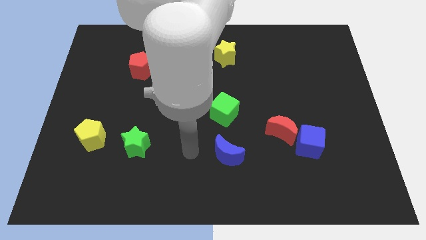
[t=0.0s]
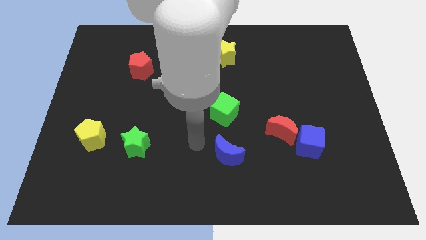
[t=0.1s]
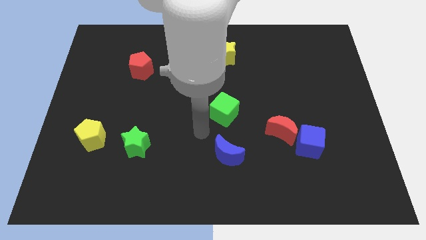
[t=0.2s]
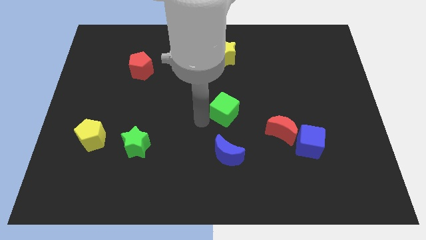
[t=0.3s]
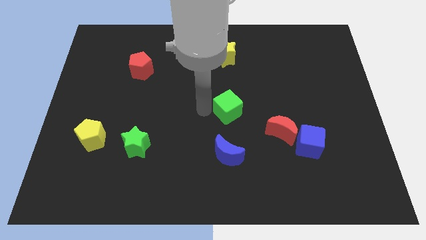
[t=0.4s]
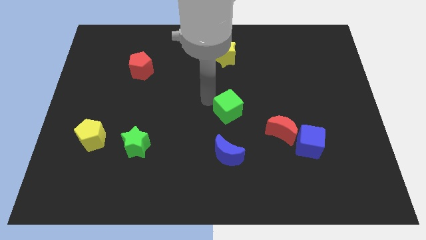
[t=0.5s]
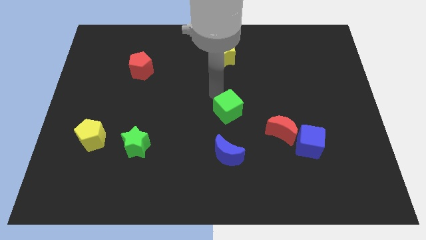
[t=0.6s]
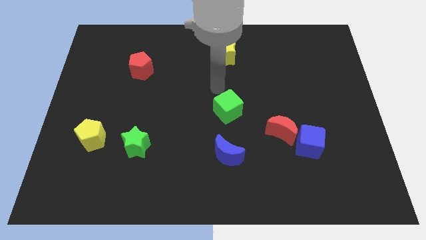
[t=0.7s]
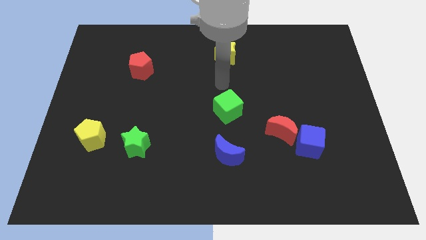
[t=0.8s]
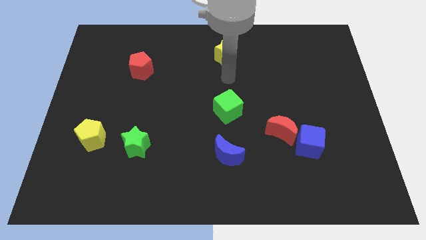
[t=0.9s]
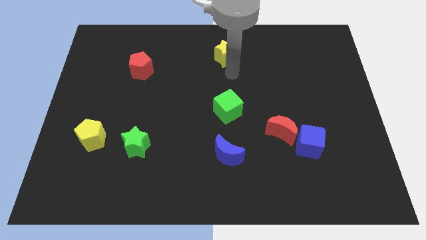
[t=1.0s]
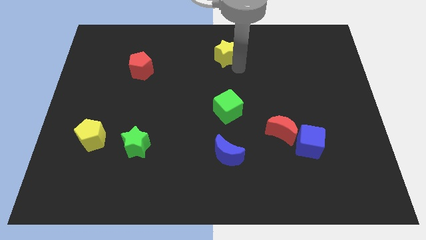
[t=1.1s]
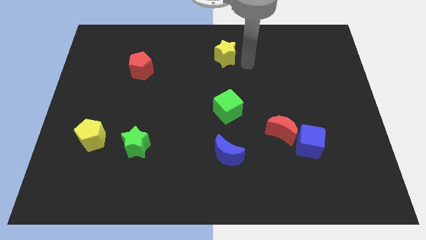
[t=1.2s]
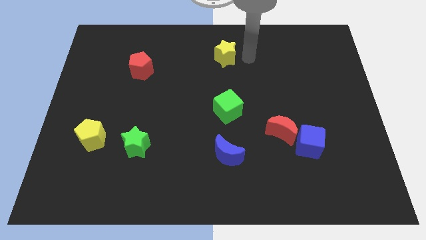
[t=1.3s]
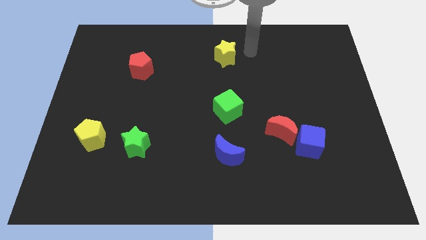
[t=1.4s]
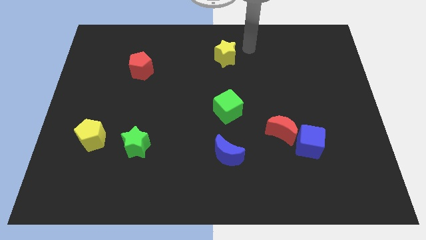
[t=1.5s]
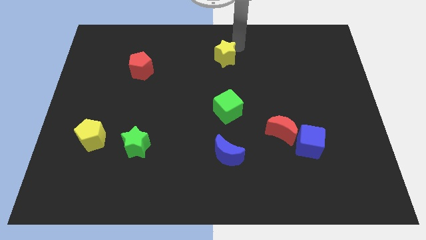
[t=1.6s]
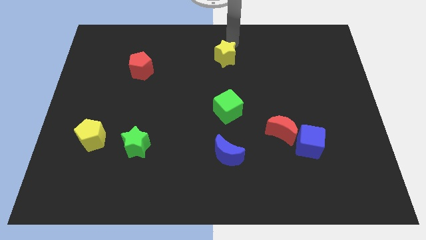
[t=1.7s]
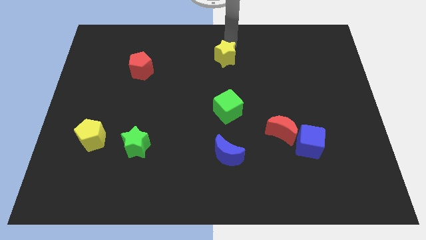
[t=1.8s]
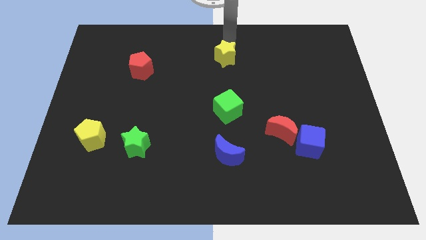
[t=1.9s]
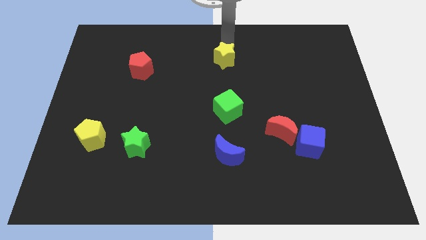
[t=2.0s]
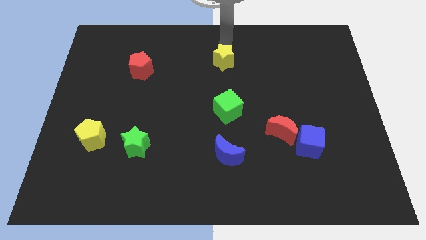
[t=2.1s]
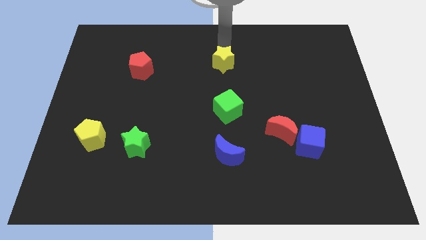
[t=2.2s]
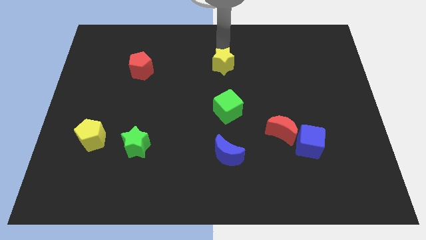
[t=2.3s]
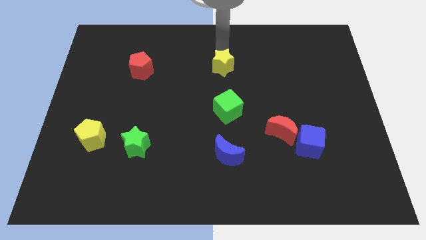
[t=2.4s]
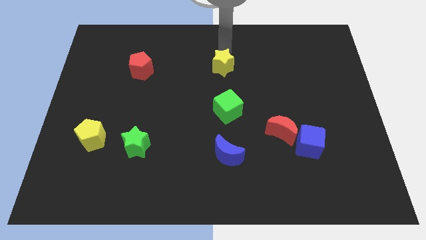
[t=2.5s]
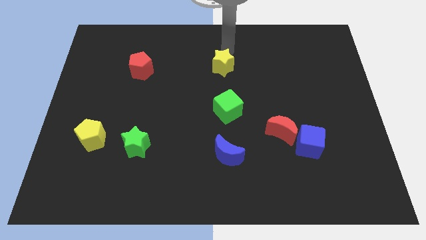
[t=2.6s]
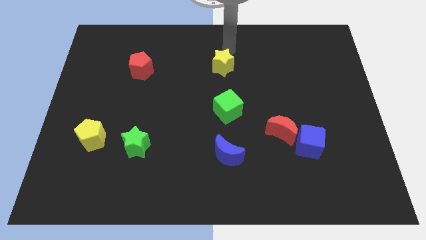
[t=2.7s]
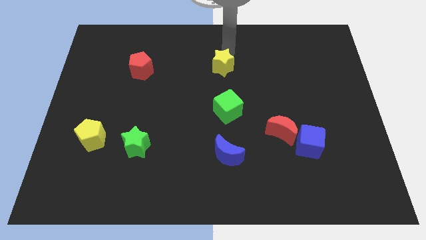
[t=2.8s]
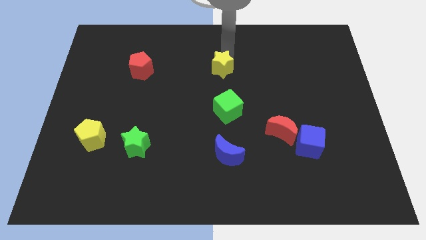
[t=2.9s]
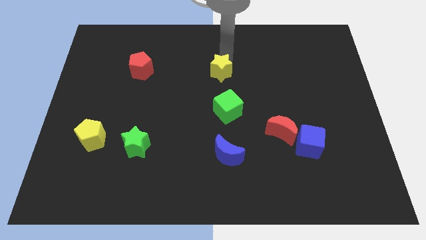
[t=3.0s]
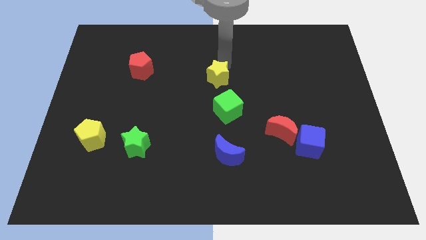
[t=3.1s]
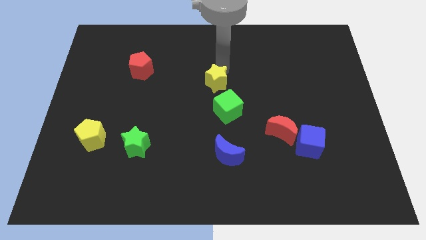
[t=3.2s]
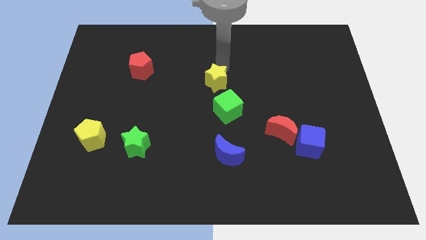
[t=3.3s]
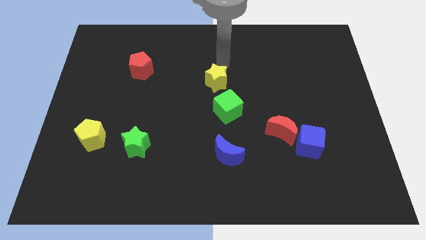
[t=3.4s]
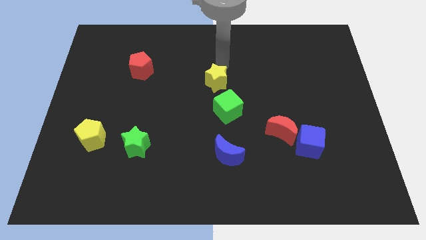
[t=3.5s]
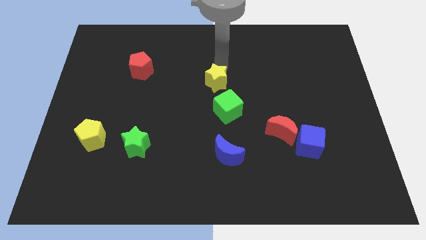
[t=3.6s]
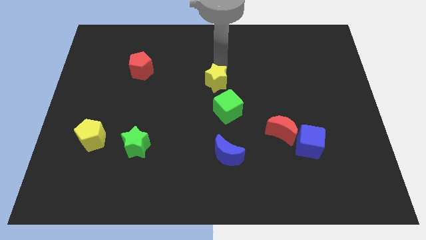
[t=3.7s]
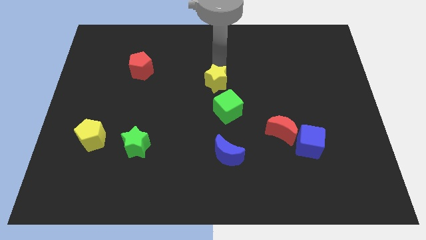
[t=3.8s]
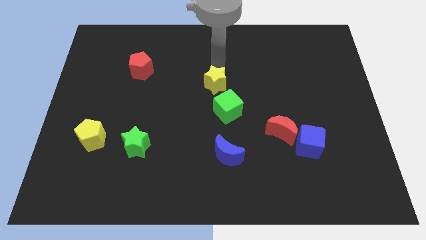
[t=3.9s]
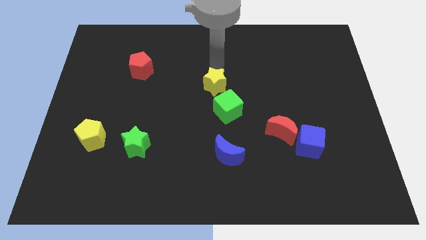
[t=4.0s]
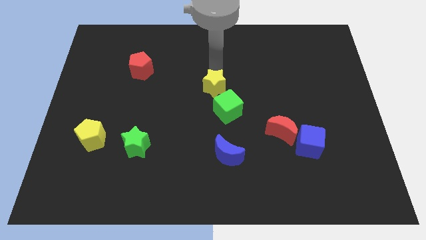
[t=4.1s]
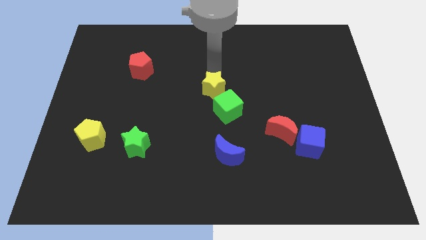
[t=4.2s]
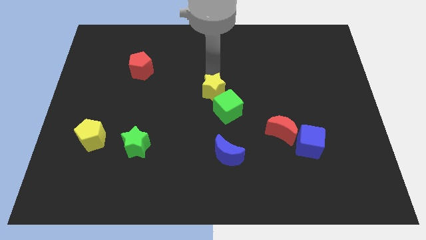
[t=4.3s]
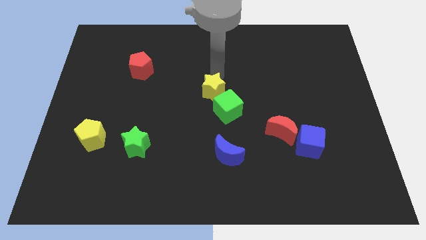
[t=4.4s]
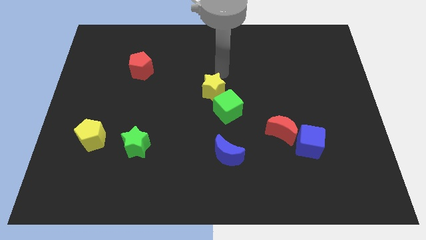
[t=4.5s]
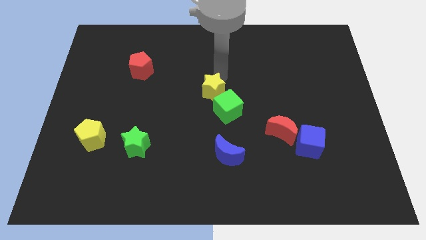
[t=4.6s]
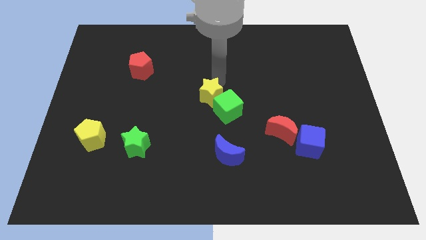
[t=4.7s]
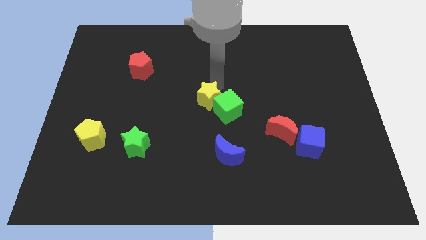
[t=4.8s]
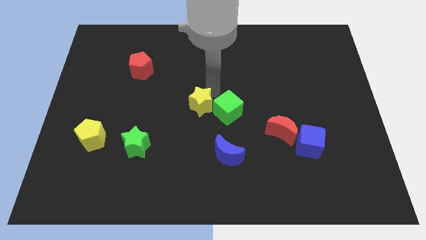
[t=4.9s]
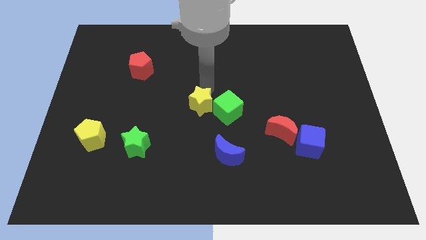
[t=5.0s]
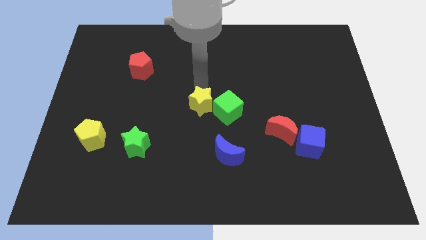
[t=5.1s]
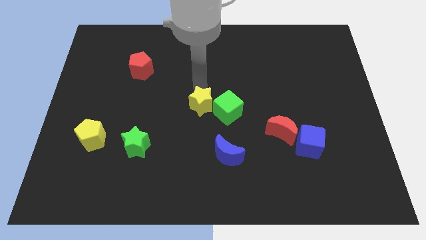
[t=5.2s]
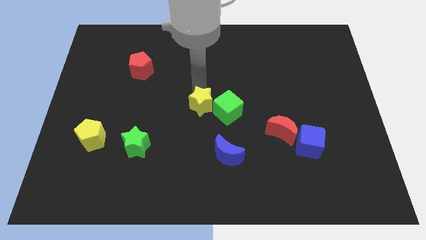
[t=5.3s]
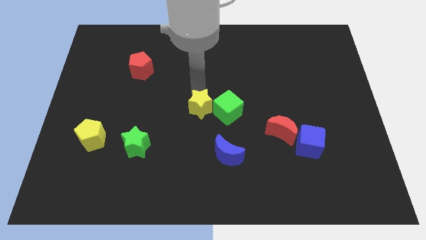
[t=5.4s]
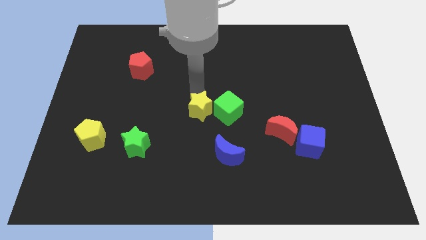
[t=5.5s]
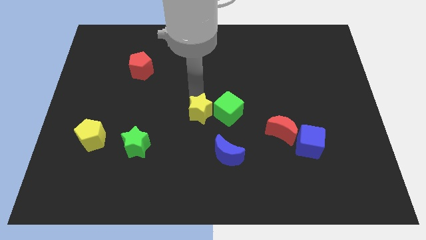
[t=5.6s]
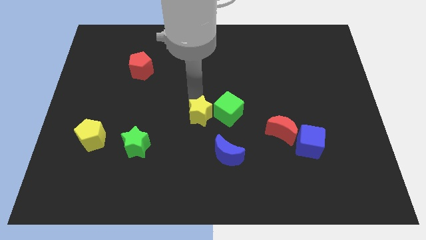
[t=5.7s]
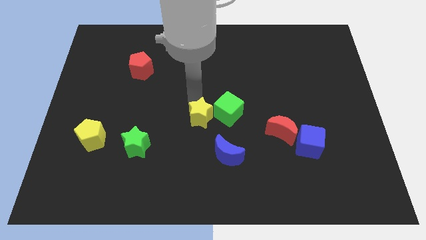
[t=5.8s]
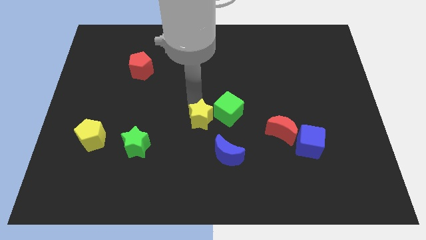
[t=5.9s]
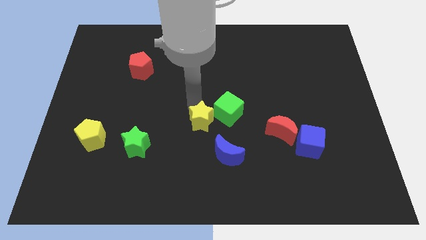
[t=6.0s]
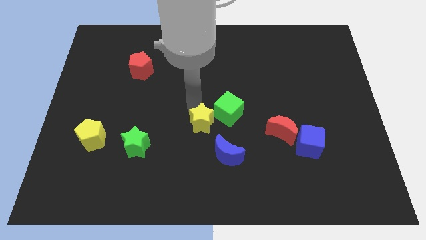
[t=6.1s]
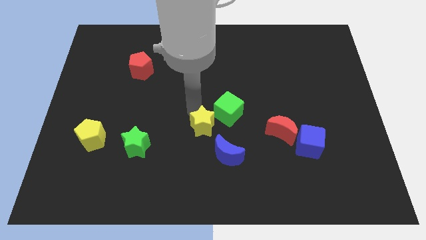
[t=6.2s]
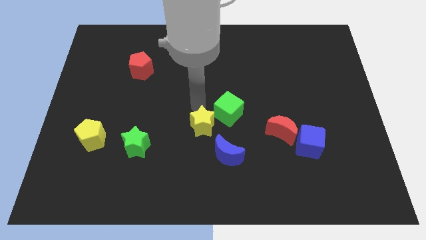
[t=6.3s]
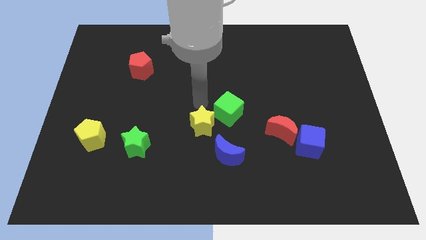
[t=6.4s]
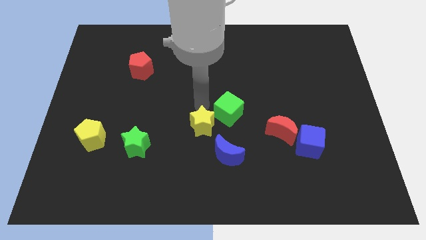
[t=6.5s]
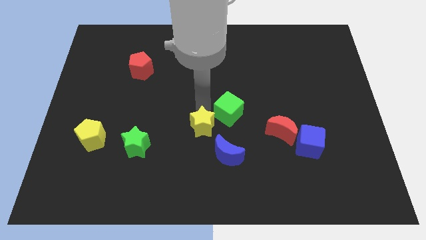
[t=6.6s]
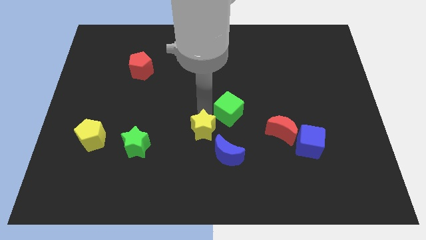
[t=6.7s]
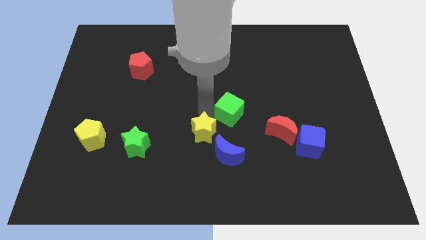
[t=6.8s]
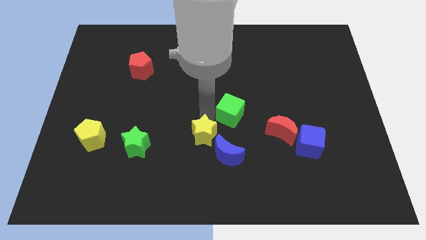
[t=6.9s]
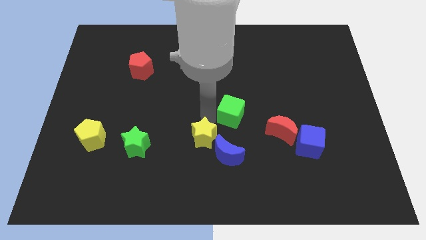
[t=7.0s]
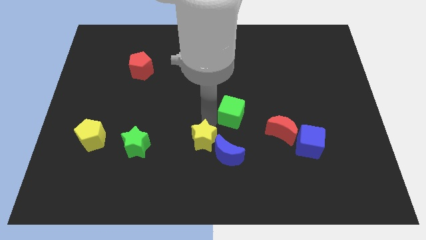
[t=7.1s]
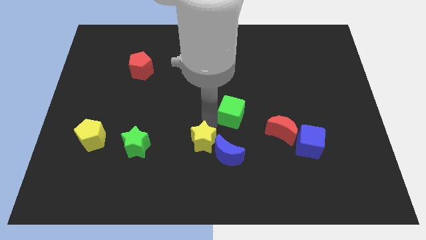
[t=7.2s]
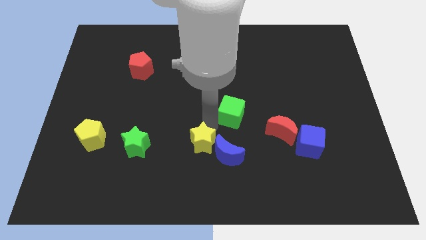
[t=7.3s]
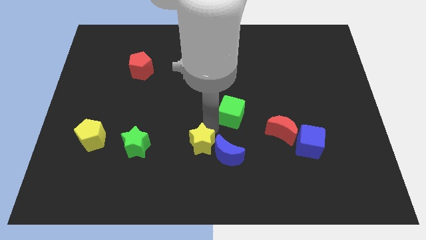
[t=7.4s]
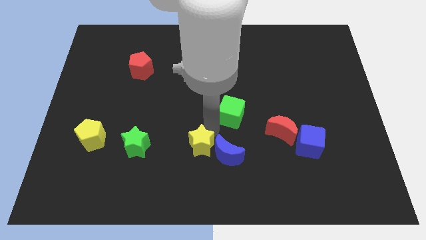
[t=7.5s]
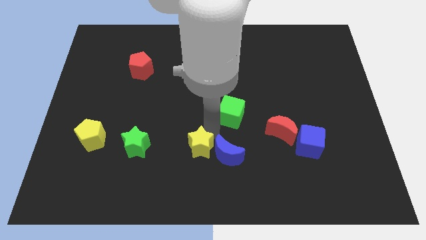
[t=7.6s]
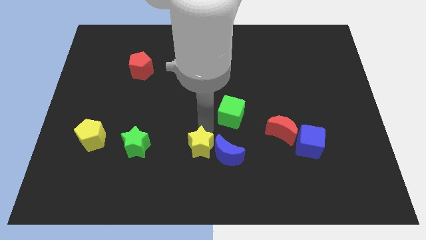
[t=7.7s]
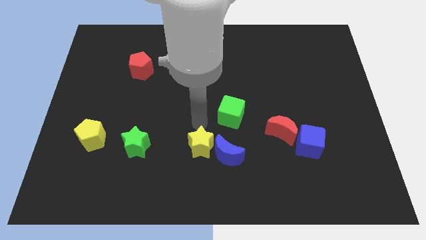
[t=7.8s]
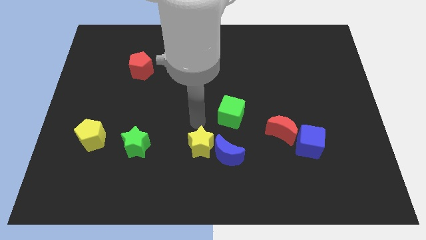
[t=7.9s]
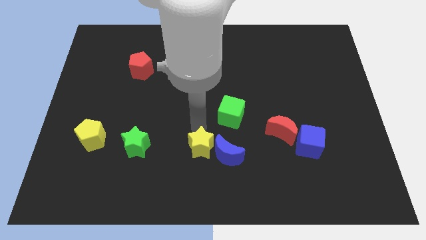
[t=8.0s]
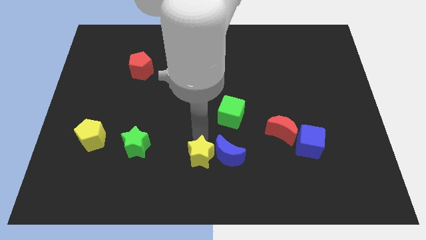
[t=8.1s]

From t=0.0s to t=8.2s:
move the yellow star to the bottom side
